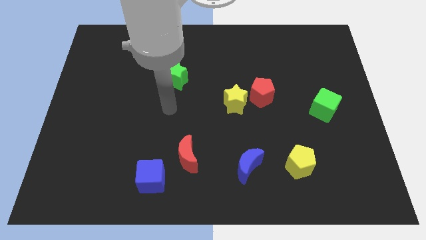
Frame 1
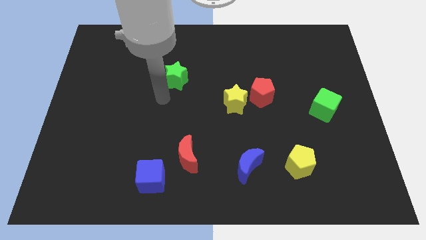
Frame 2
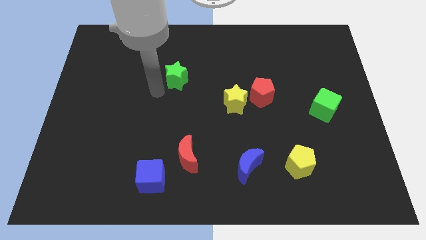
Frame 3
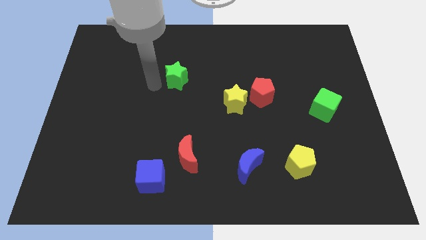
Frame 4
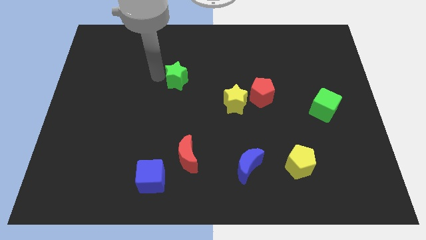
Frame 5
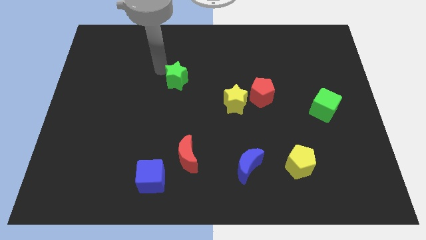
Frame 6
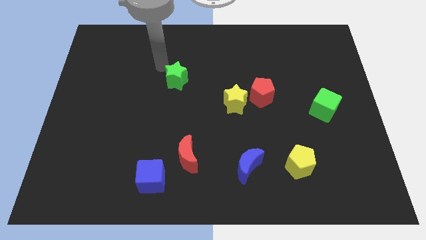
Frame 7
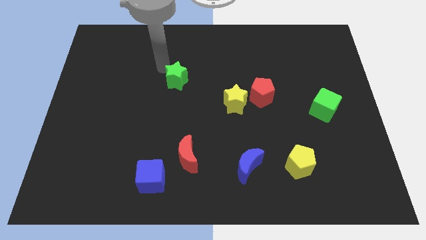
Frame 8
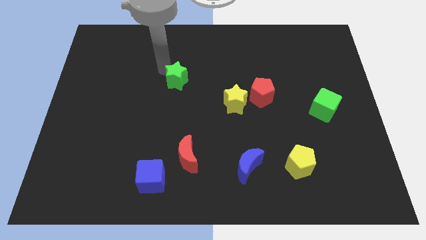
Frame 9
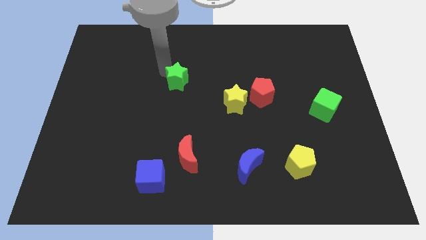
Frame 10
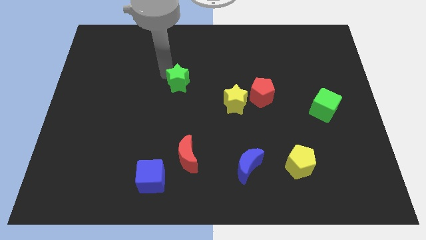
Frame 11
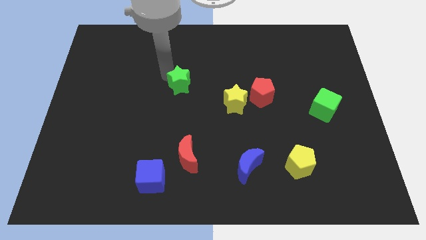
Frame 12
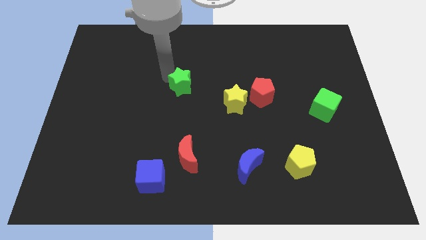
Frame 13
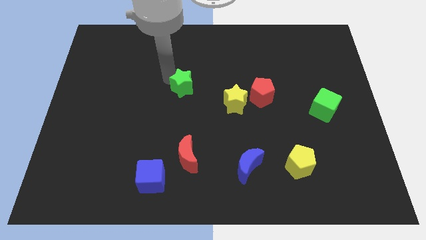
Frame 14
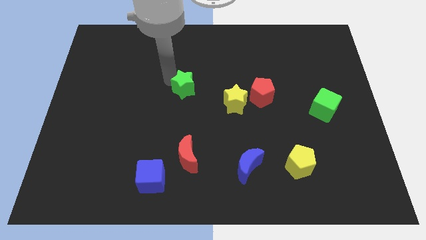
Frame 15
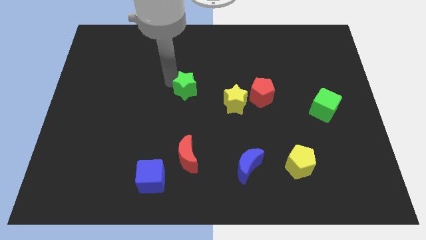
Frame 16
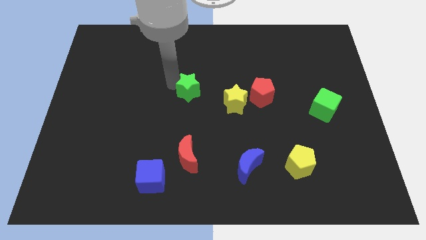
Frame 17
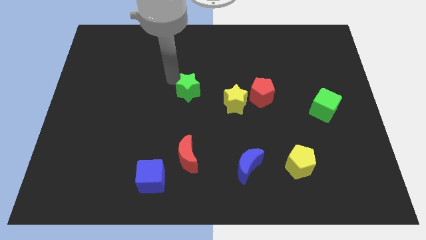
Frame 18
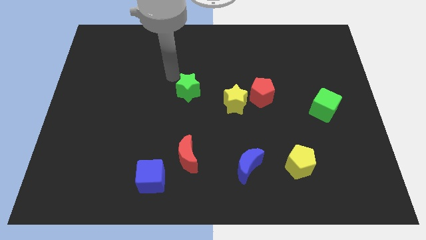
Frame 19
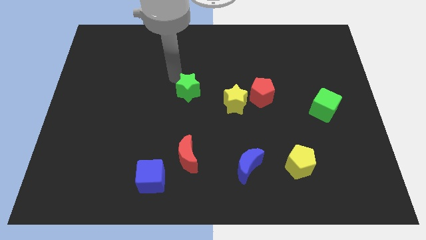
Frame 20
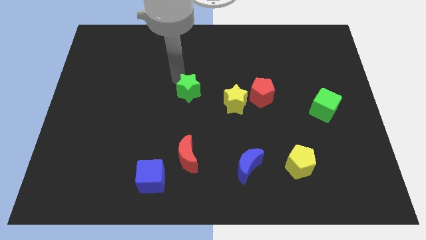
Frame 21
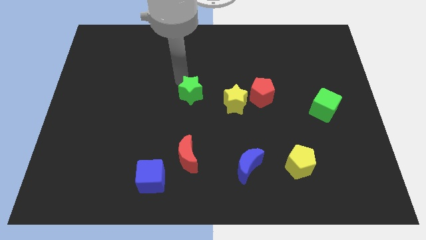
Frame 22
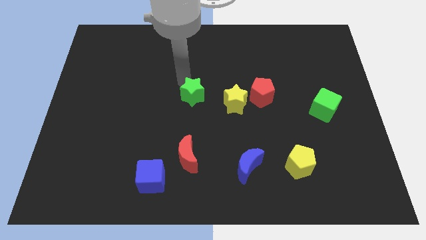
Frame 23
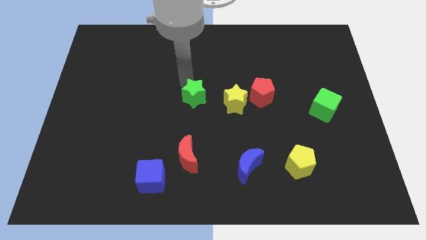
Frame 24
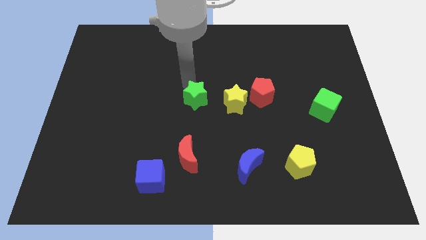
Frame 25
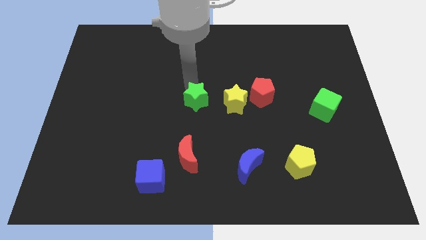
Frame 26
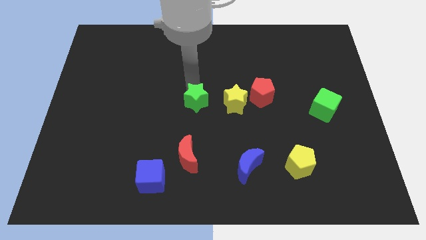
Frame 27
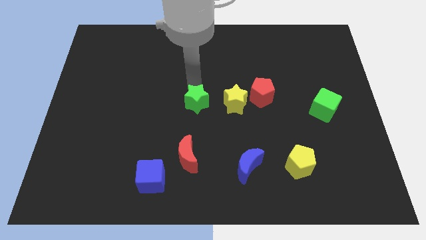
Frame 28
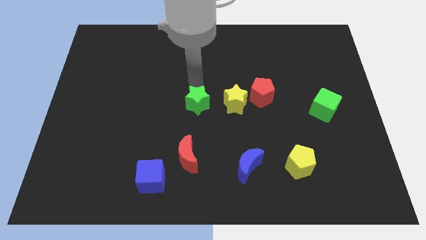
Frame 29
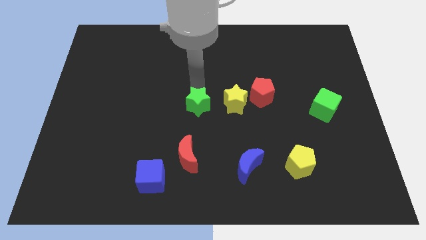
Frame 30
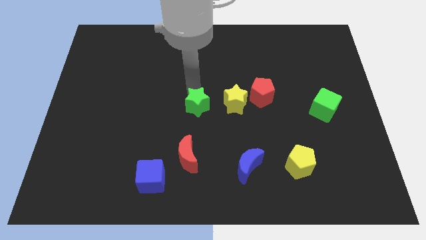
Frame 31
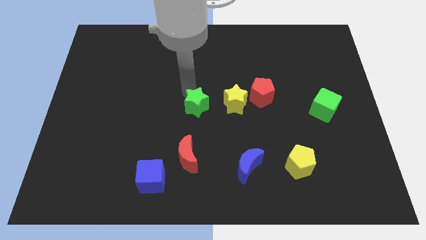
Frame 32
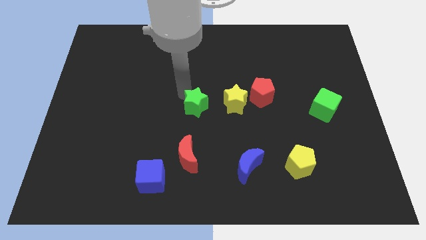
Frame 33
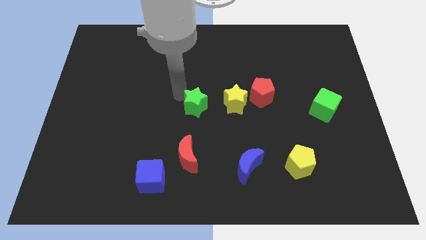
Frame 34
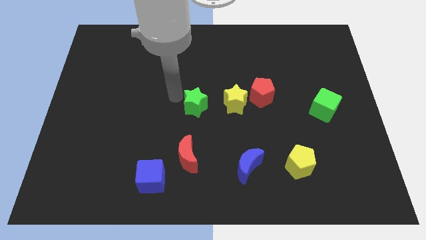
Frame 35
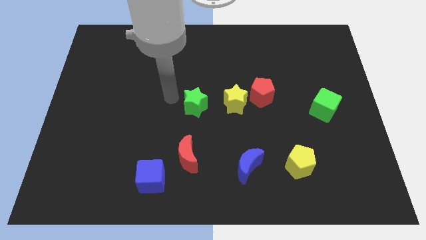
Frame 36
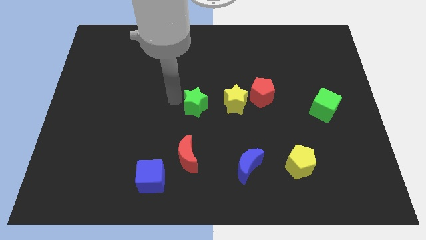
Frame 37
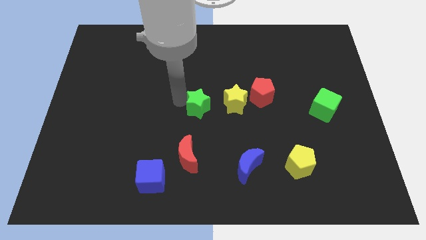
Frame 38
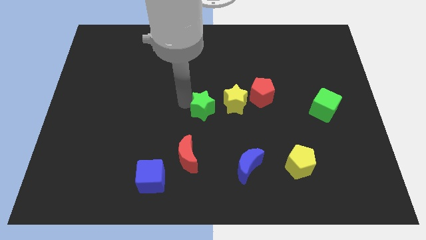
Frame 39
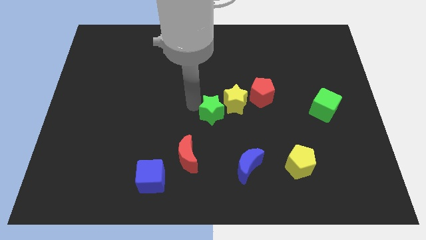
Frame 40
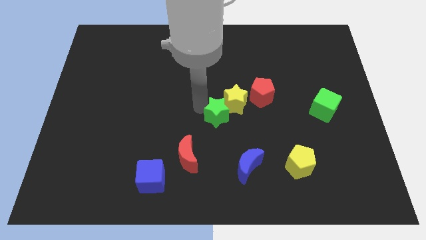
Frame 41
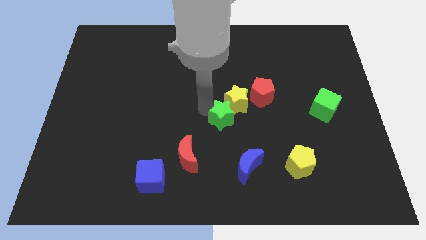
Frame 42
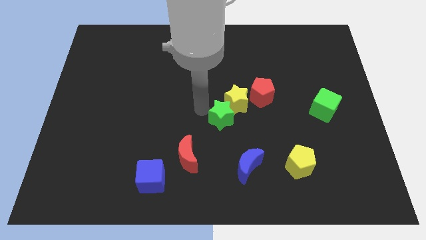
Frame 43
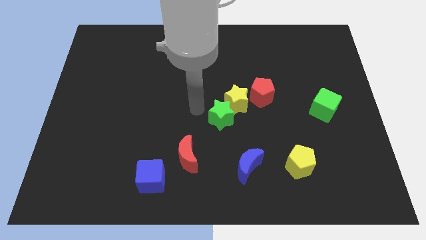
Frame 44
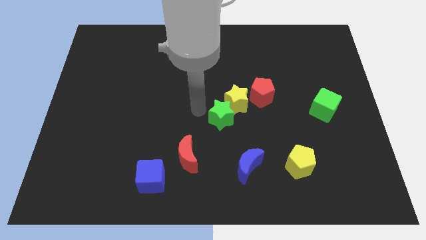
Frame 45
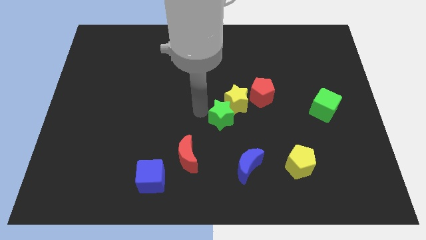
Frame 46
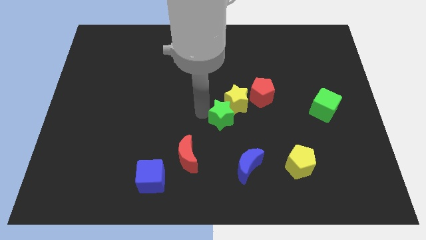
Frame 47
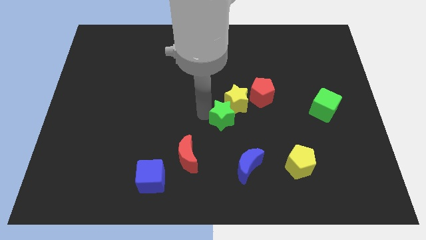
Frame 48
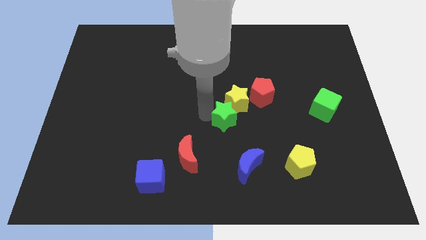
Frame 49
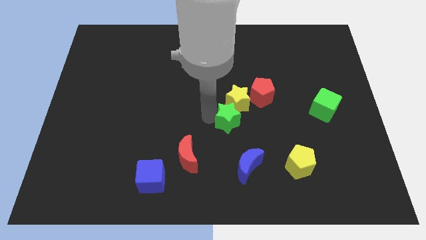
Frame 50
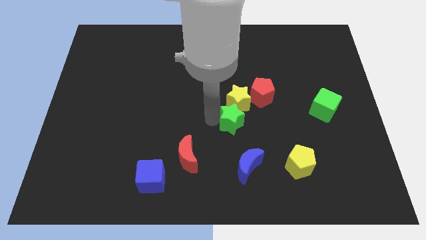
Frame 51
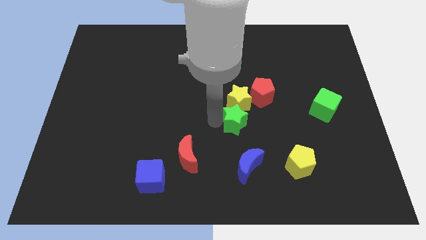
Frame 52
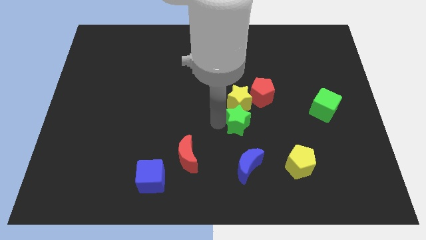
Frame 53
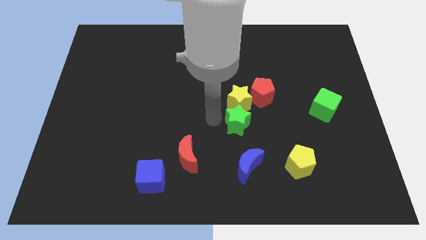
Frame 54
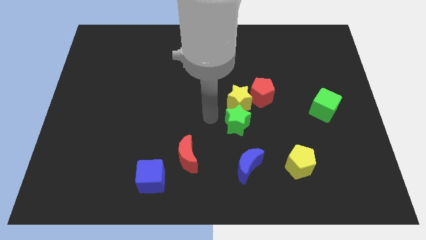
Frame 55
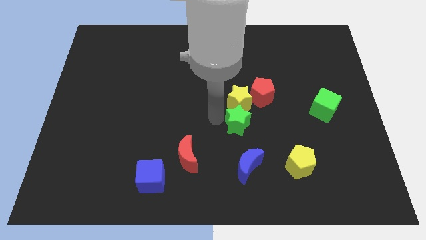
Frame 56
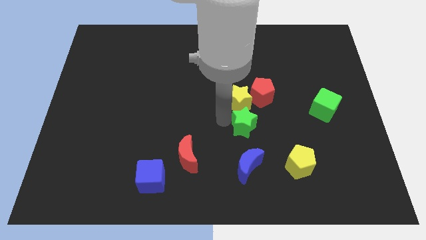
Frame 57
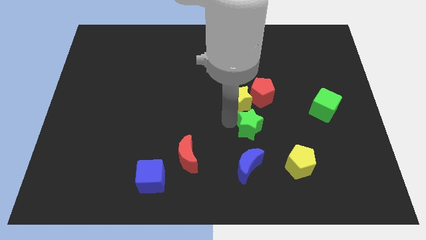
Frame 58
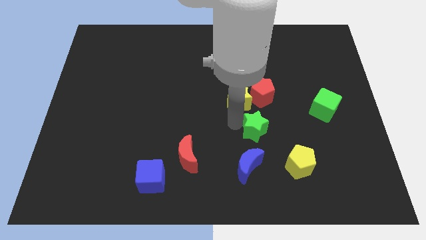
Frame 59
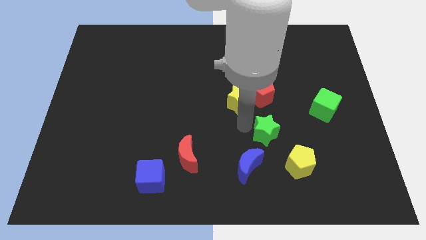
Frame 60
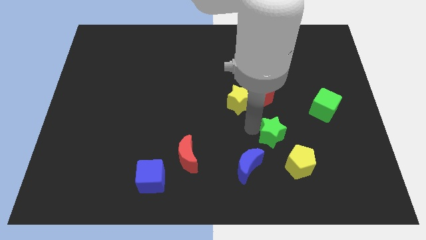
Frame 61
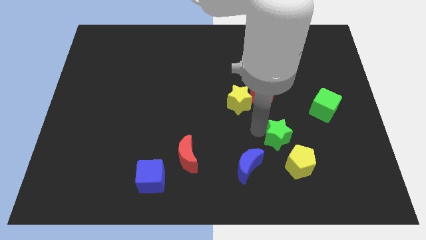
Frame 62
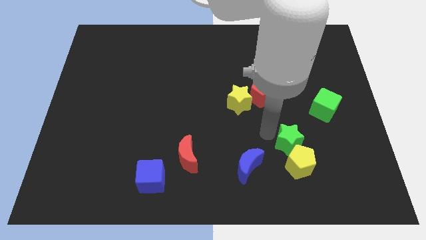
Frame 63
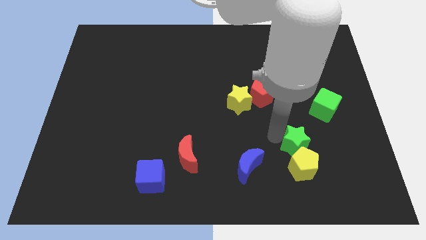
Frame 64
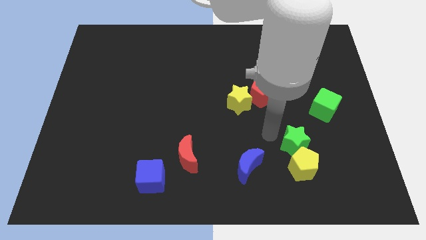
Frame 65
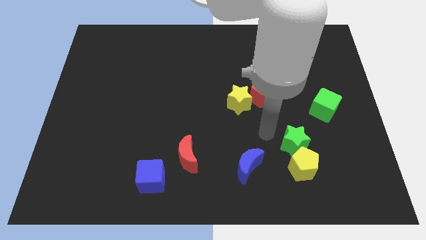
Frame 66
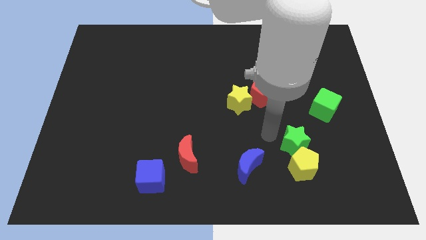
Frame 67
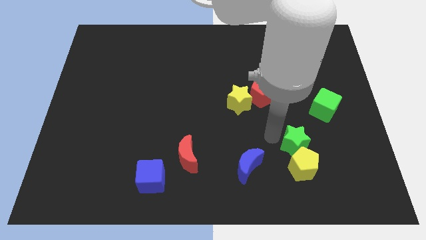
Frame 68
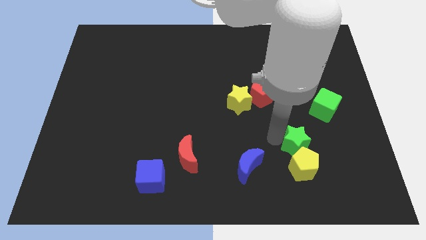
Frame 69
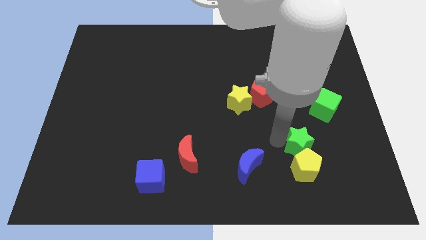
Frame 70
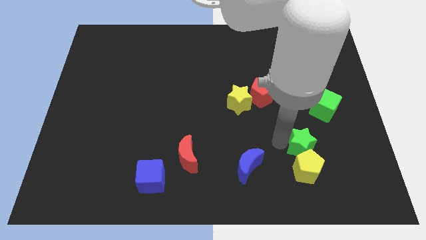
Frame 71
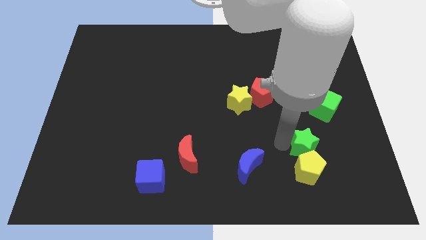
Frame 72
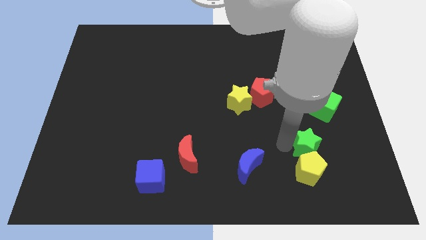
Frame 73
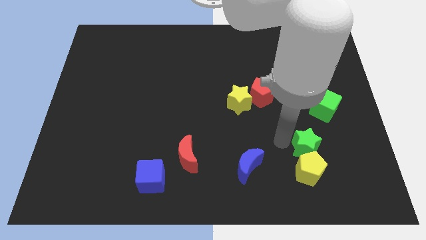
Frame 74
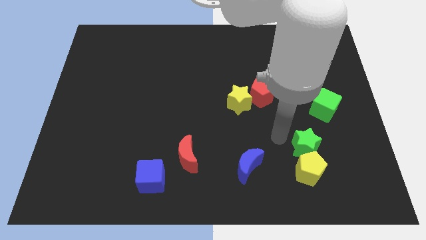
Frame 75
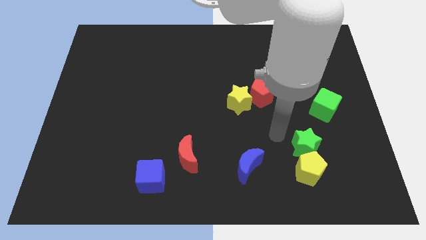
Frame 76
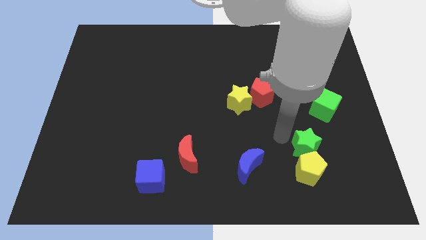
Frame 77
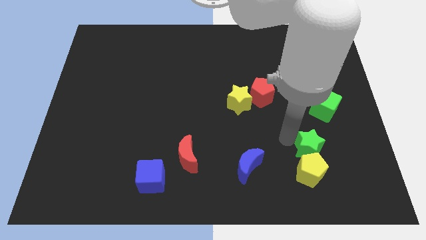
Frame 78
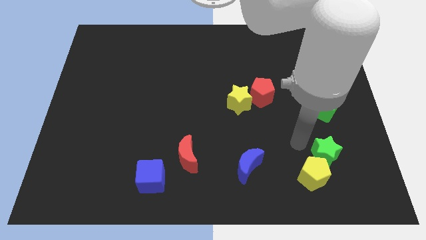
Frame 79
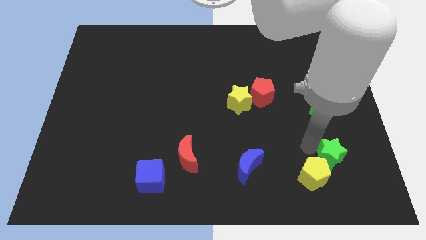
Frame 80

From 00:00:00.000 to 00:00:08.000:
move the green star to the right of the yellow pentagon
